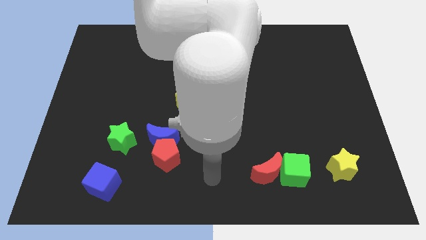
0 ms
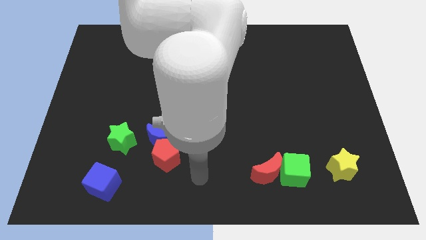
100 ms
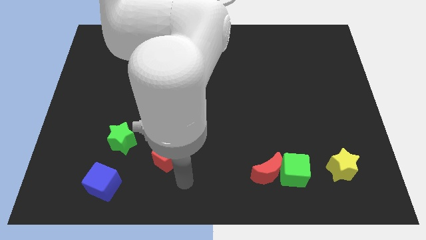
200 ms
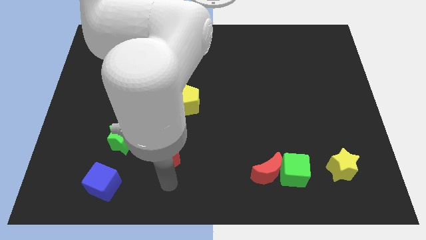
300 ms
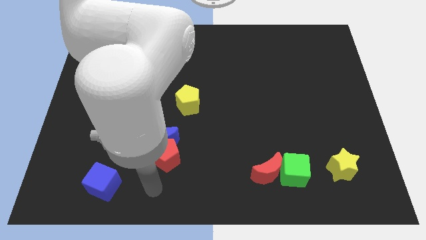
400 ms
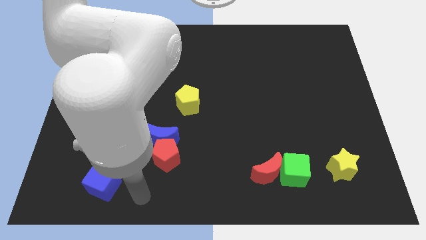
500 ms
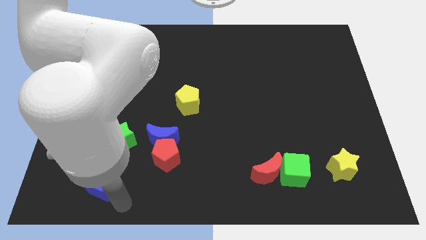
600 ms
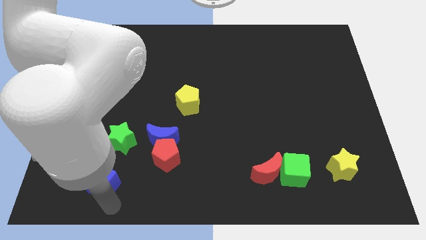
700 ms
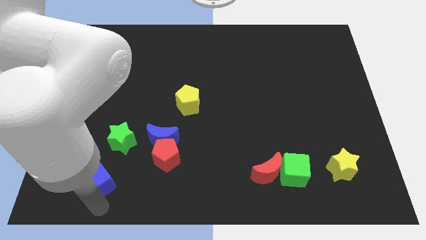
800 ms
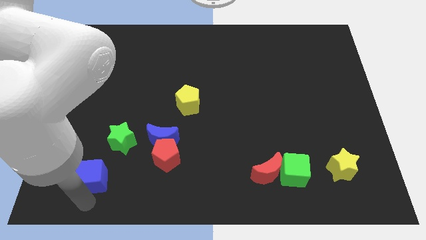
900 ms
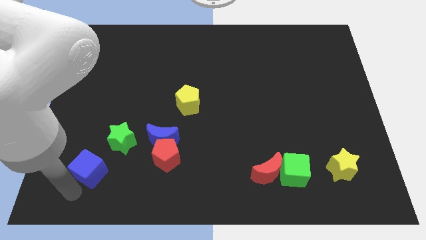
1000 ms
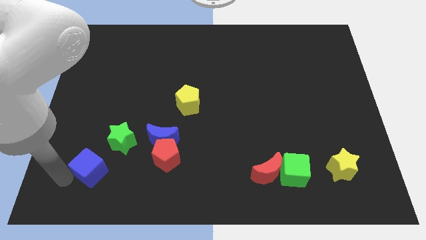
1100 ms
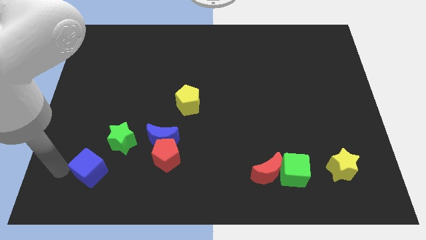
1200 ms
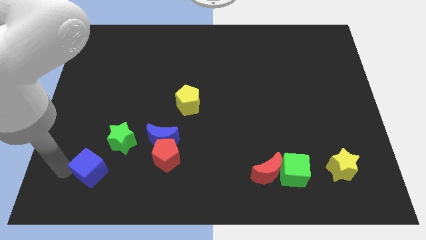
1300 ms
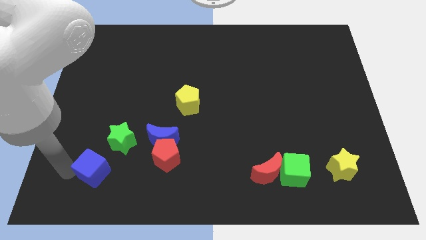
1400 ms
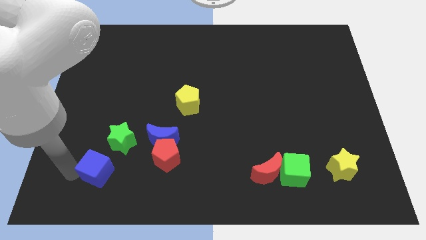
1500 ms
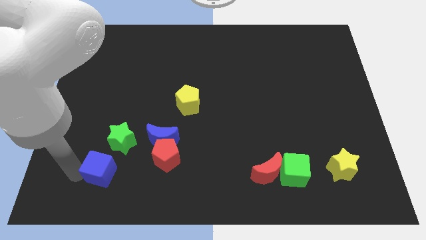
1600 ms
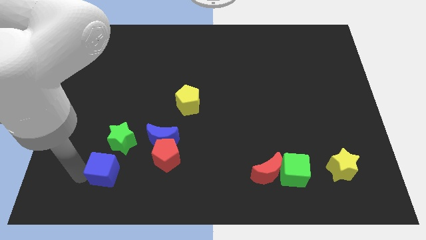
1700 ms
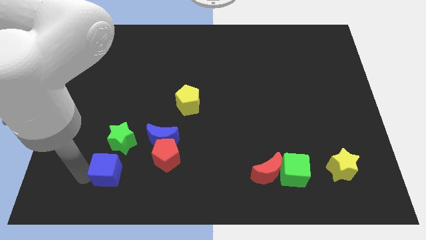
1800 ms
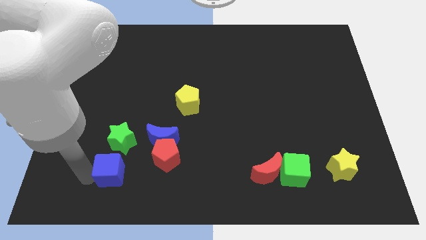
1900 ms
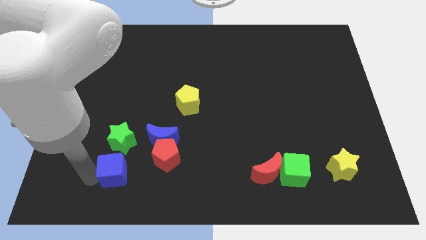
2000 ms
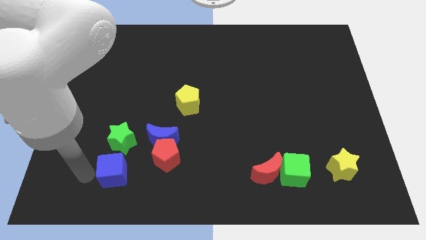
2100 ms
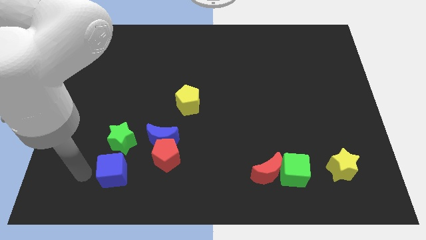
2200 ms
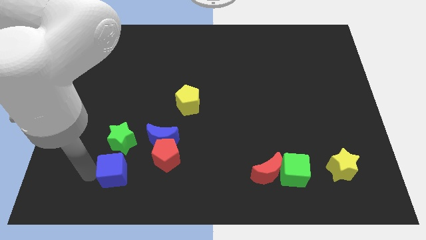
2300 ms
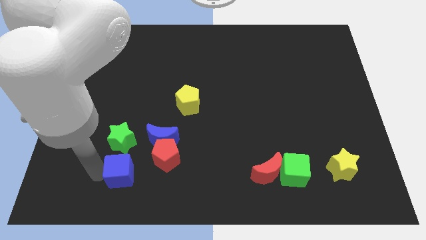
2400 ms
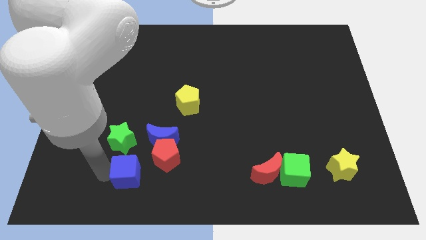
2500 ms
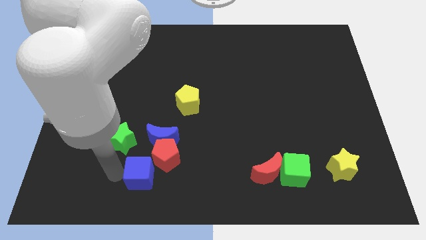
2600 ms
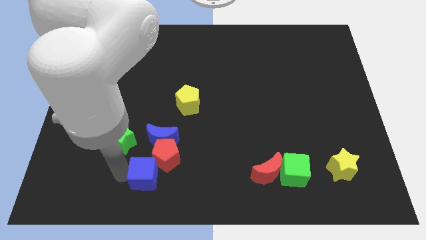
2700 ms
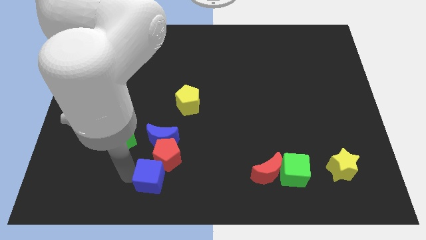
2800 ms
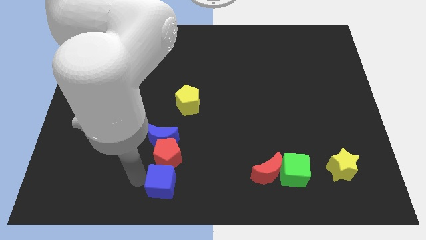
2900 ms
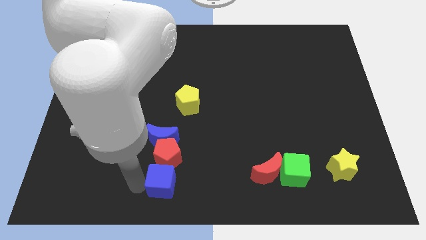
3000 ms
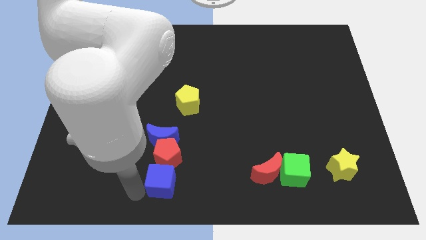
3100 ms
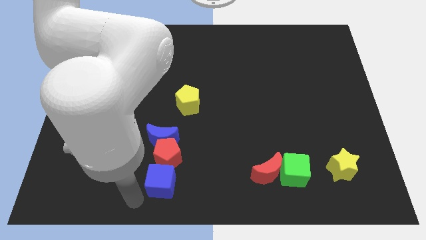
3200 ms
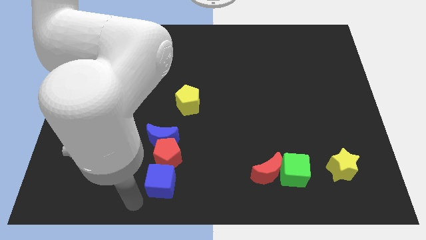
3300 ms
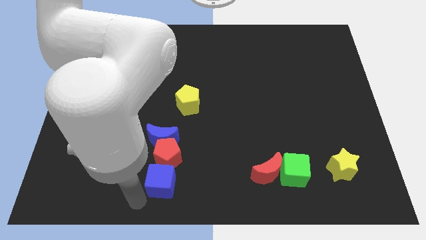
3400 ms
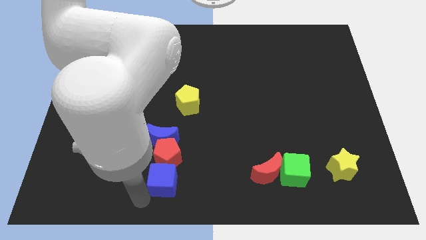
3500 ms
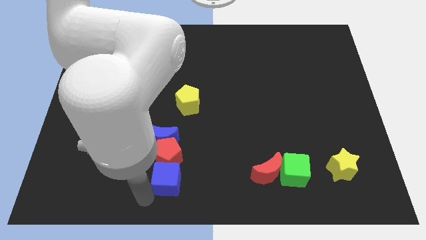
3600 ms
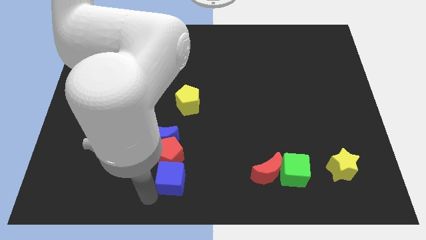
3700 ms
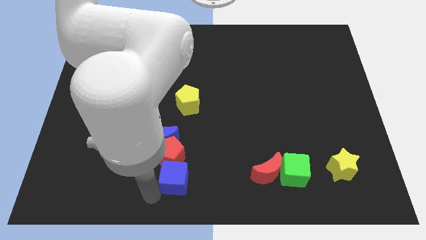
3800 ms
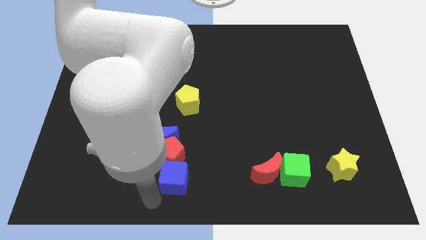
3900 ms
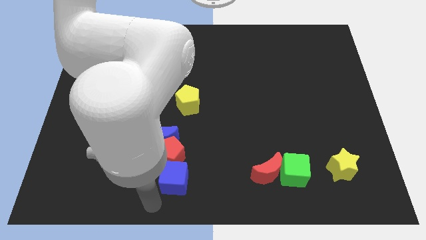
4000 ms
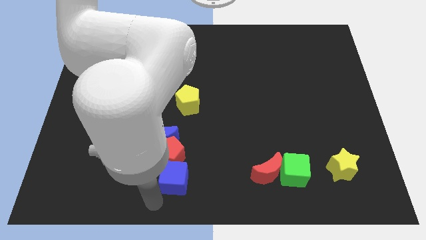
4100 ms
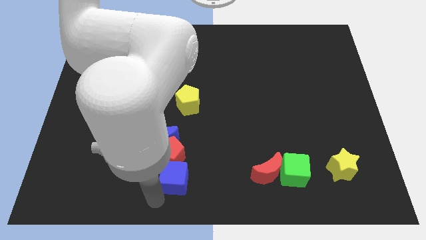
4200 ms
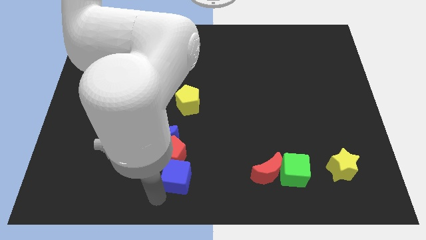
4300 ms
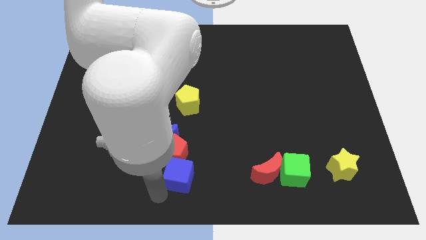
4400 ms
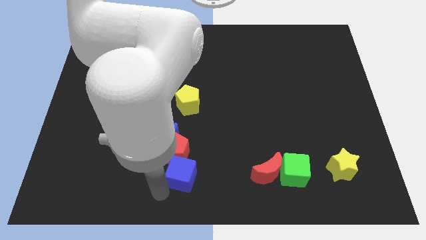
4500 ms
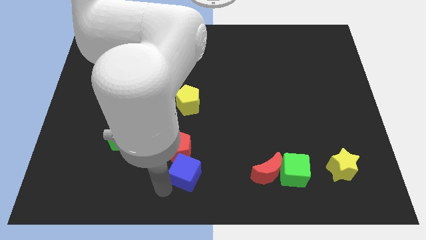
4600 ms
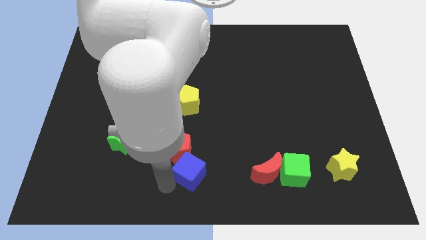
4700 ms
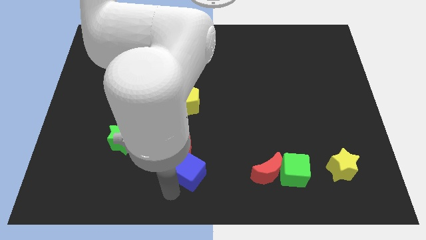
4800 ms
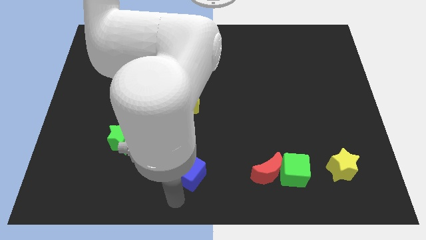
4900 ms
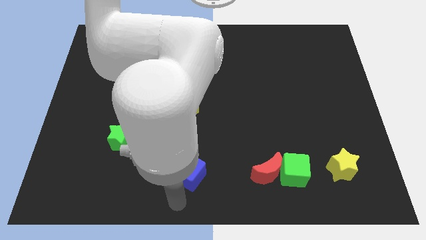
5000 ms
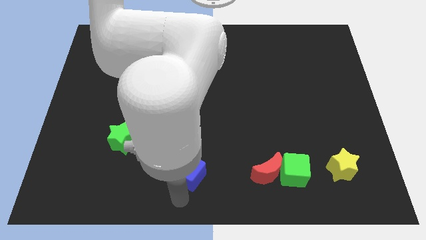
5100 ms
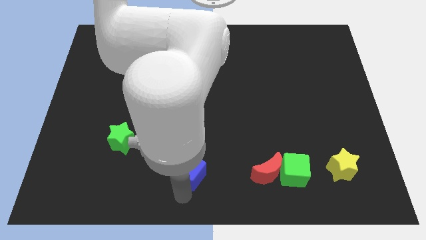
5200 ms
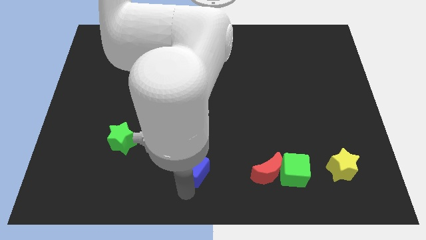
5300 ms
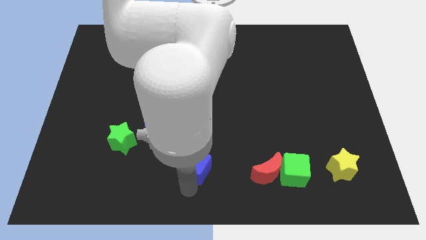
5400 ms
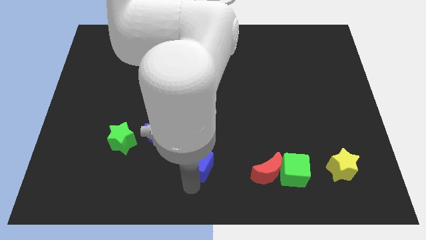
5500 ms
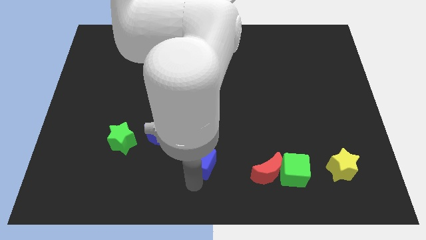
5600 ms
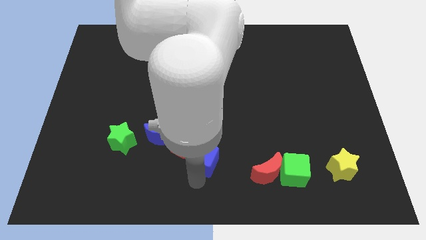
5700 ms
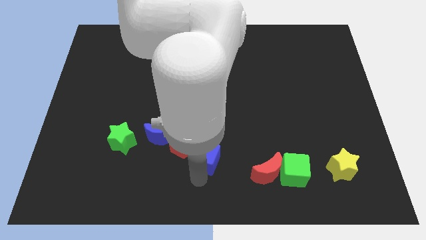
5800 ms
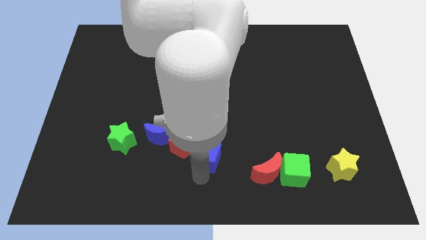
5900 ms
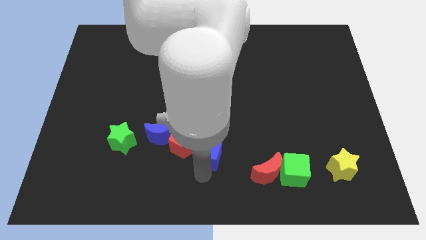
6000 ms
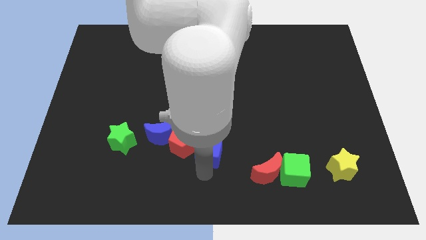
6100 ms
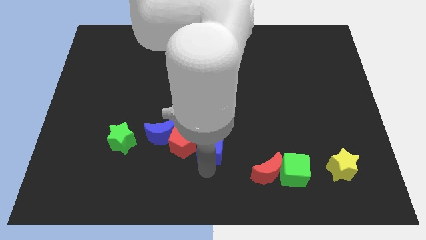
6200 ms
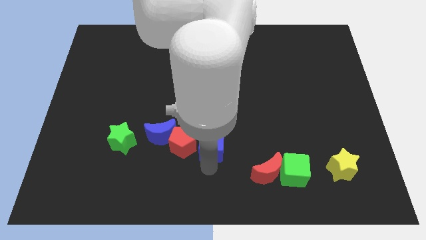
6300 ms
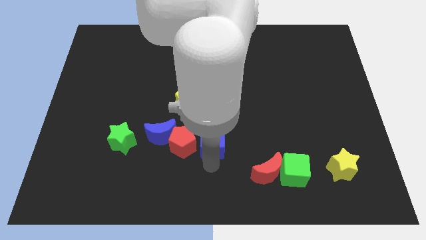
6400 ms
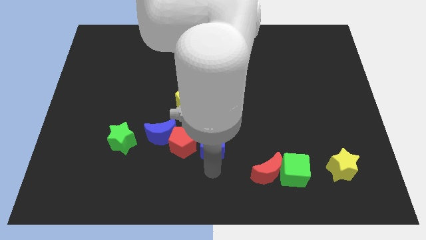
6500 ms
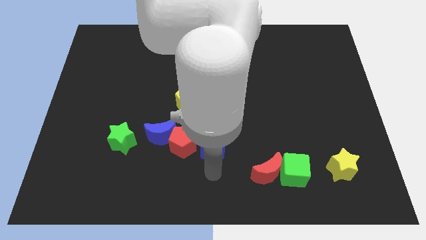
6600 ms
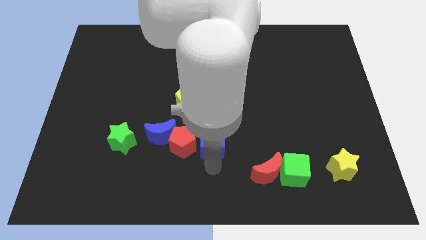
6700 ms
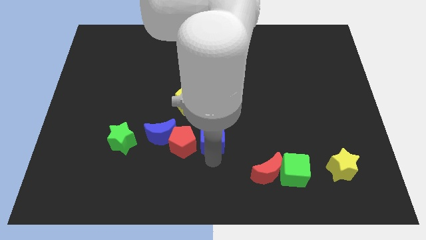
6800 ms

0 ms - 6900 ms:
slide the blue cube up and to the right diagonally

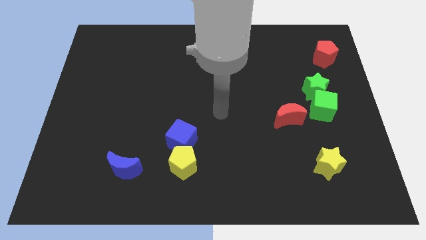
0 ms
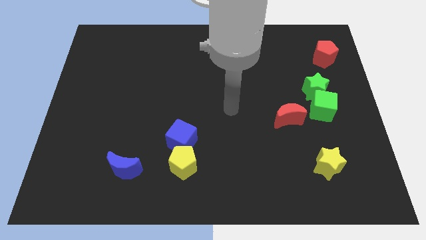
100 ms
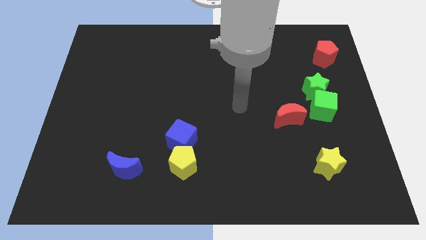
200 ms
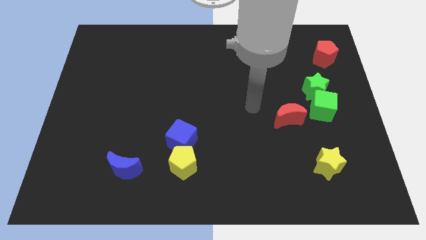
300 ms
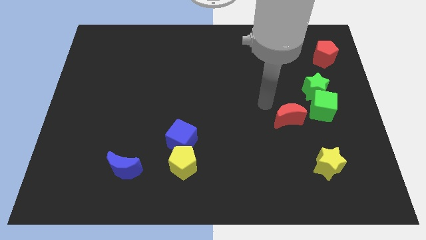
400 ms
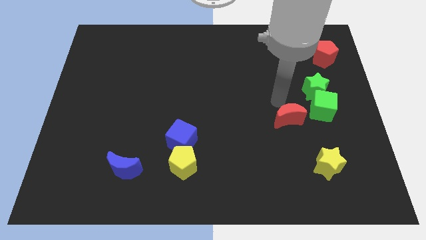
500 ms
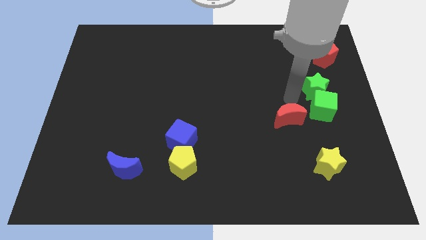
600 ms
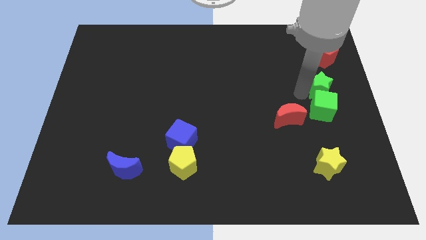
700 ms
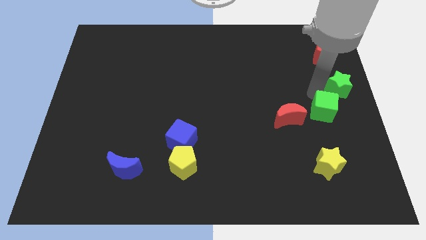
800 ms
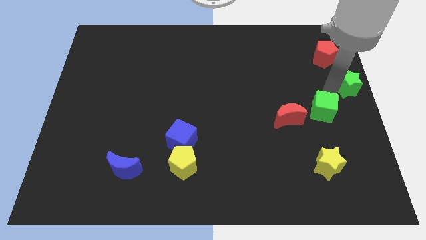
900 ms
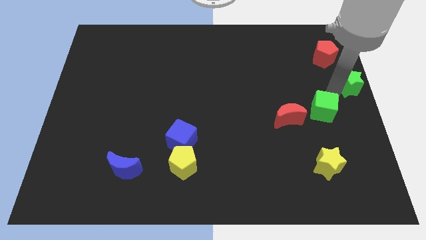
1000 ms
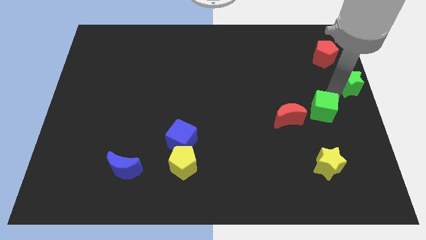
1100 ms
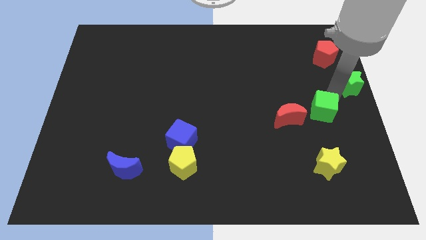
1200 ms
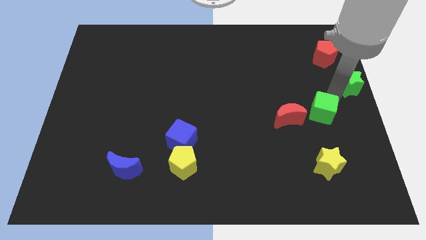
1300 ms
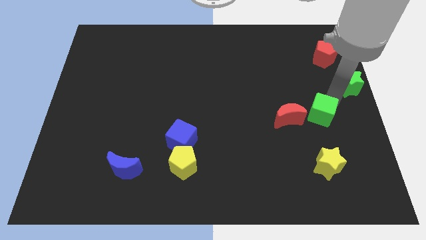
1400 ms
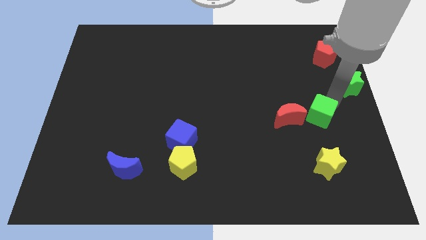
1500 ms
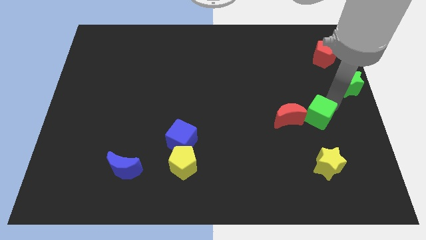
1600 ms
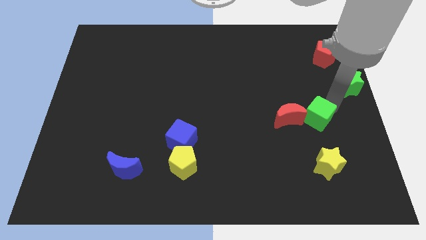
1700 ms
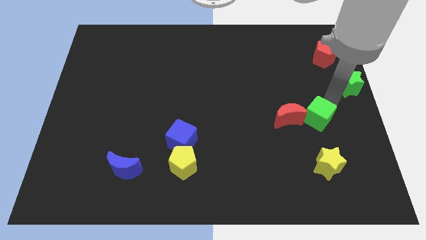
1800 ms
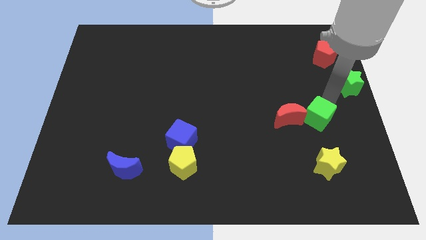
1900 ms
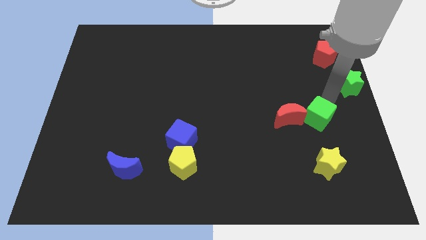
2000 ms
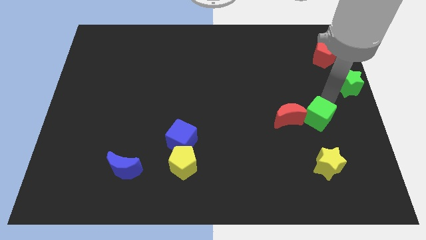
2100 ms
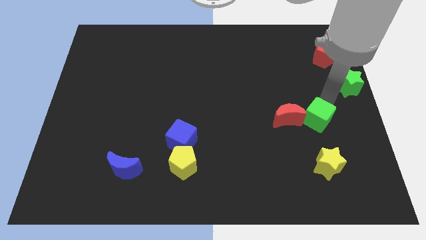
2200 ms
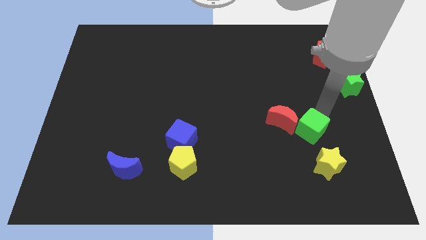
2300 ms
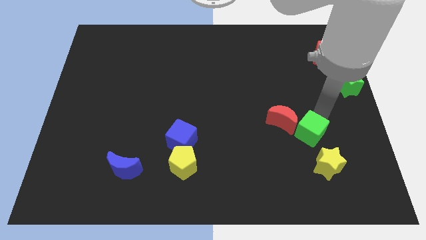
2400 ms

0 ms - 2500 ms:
move the green cube a little down and to the left diagonally
